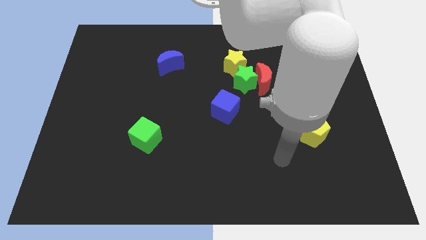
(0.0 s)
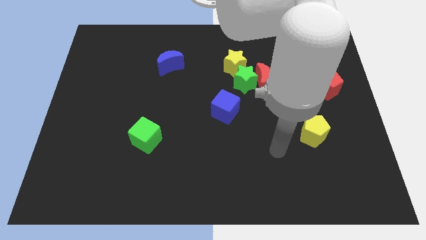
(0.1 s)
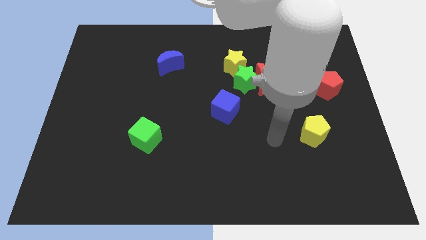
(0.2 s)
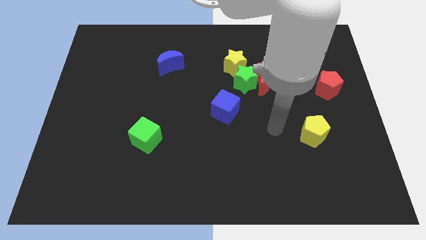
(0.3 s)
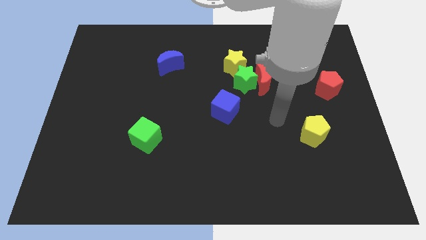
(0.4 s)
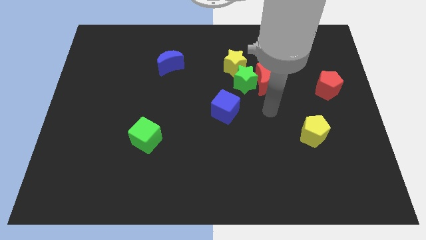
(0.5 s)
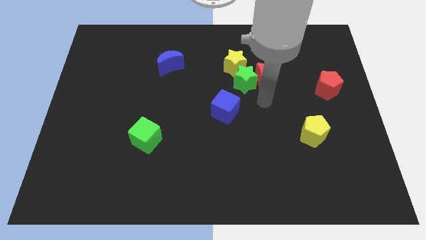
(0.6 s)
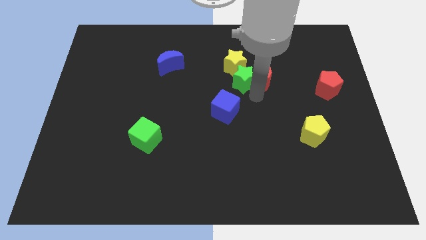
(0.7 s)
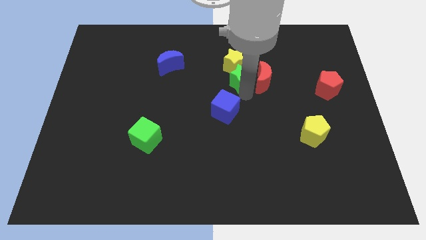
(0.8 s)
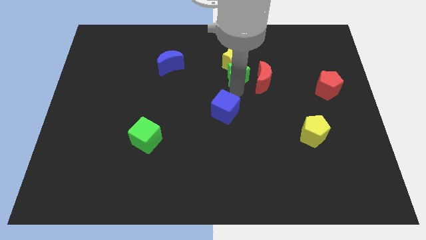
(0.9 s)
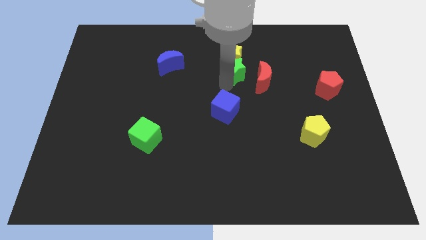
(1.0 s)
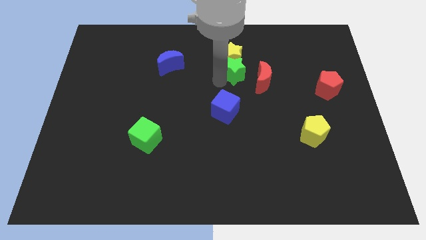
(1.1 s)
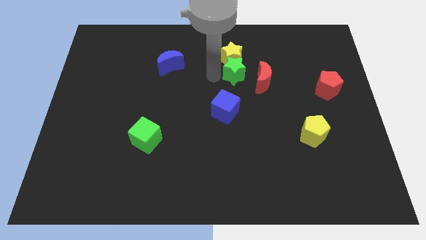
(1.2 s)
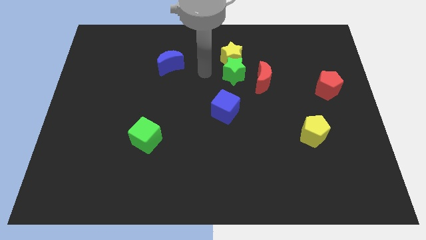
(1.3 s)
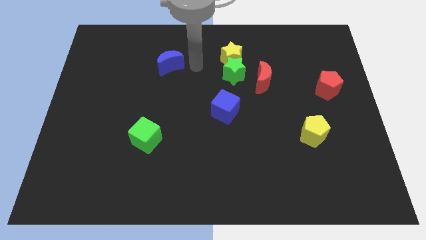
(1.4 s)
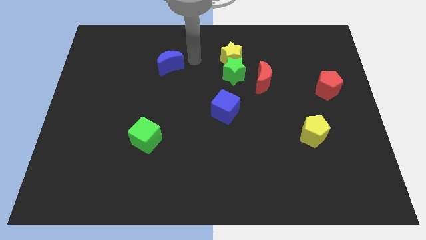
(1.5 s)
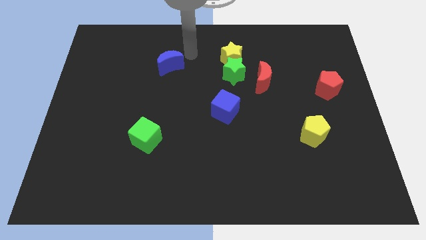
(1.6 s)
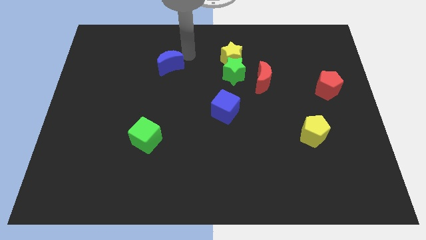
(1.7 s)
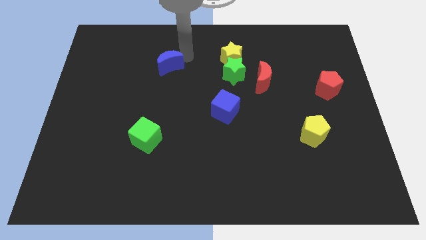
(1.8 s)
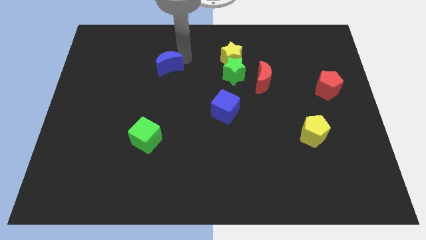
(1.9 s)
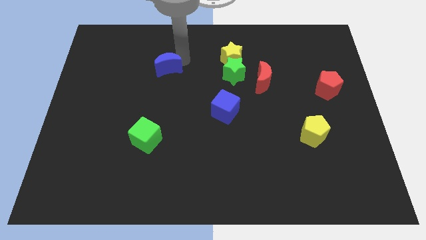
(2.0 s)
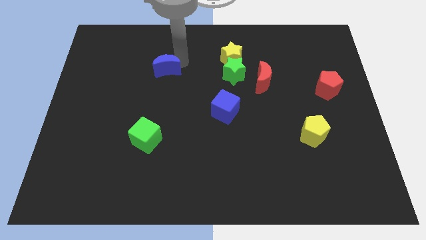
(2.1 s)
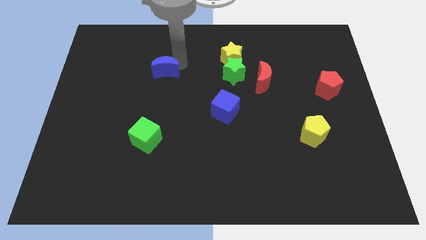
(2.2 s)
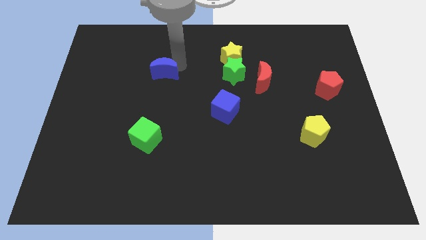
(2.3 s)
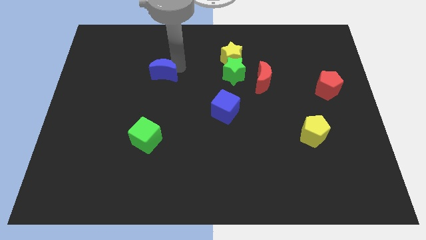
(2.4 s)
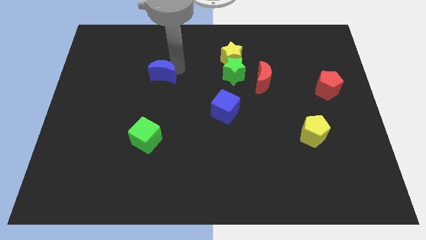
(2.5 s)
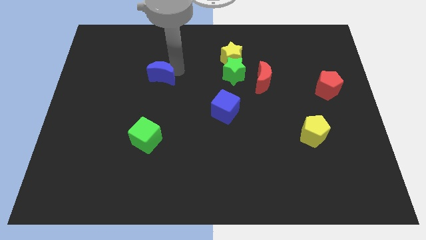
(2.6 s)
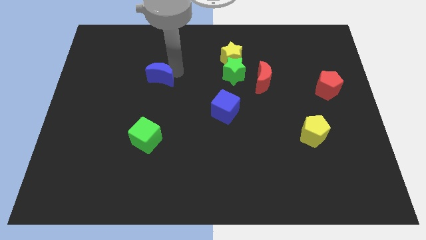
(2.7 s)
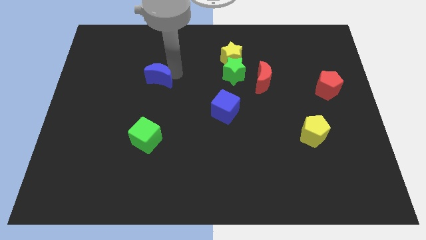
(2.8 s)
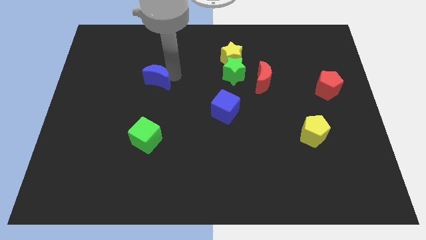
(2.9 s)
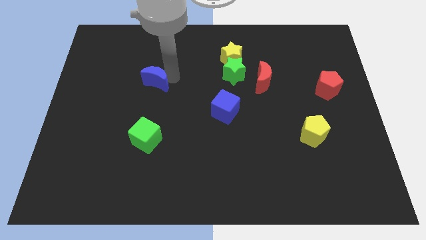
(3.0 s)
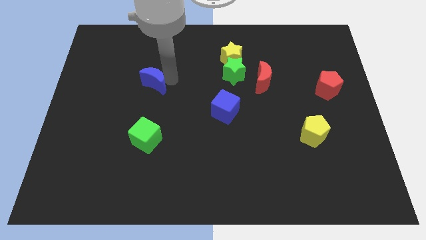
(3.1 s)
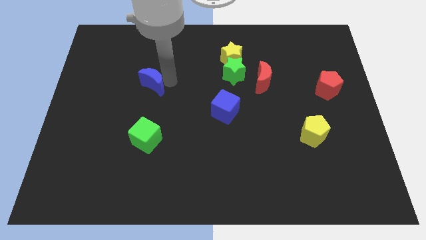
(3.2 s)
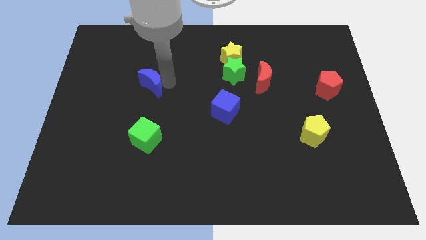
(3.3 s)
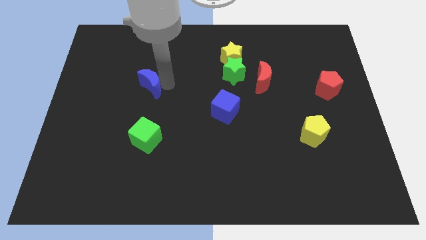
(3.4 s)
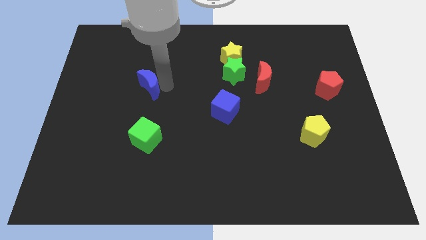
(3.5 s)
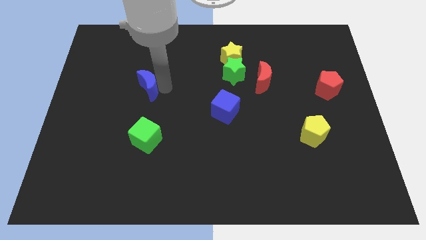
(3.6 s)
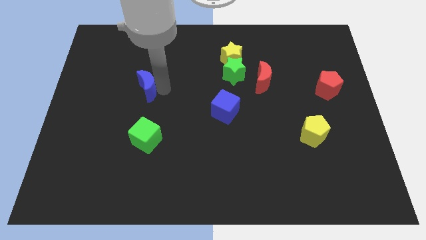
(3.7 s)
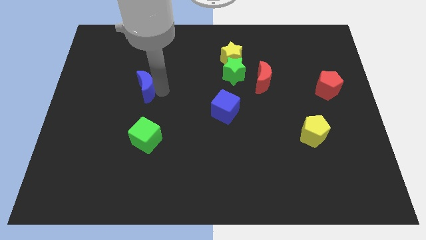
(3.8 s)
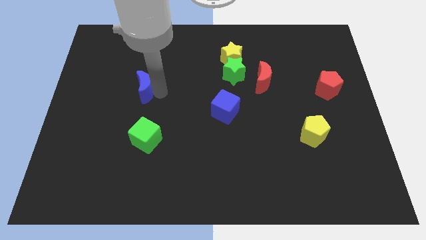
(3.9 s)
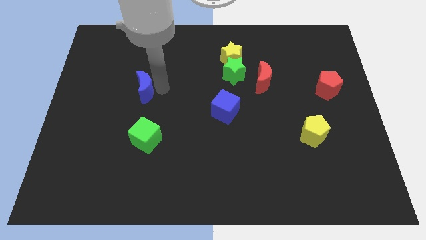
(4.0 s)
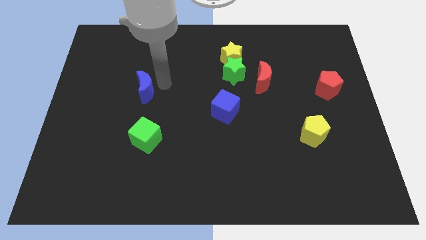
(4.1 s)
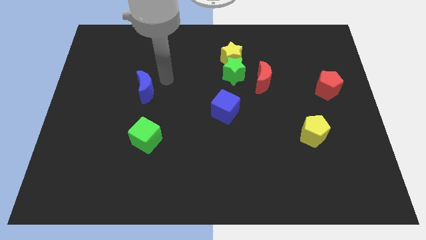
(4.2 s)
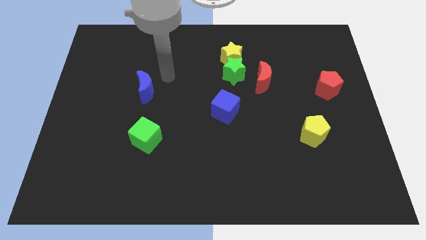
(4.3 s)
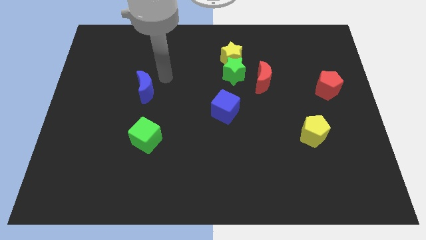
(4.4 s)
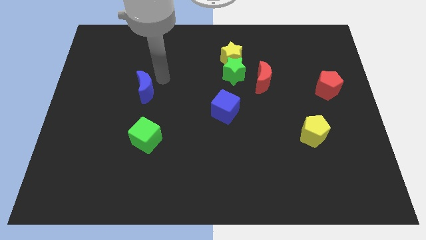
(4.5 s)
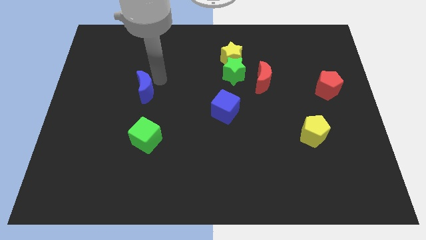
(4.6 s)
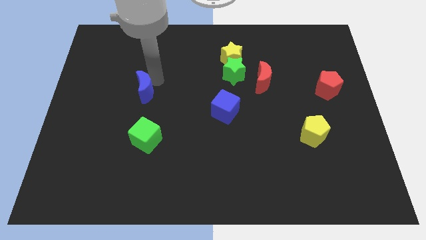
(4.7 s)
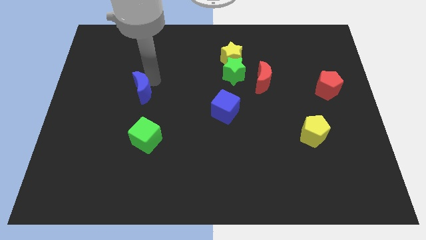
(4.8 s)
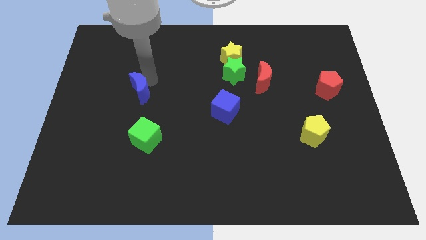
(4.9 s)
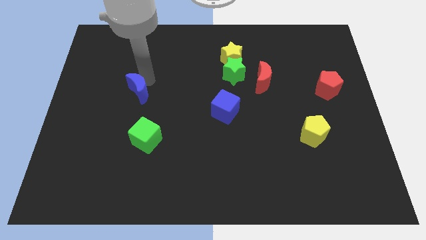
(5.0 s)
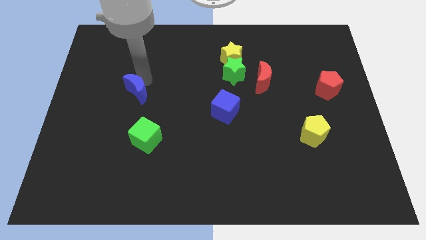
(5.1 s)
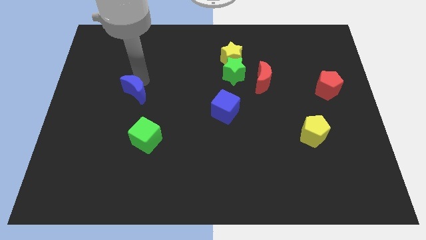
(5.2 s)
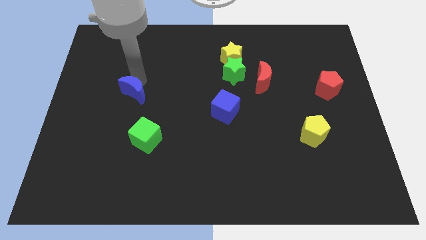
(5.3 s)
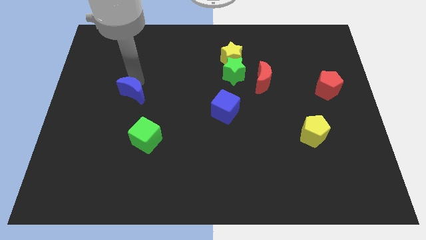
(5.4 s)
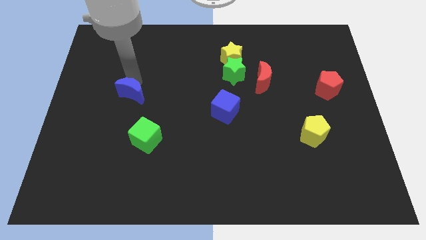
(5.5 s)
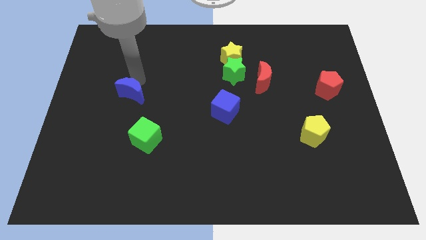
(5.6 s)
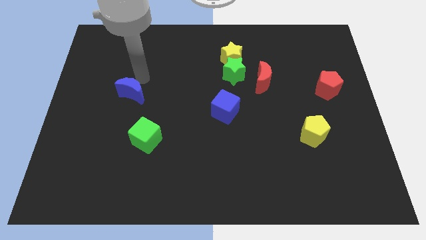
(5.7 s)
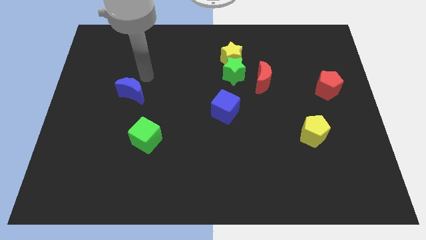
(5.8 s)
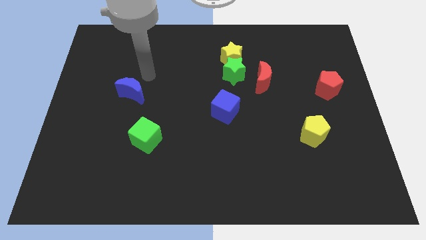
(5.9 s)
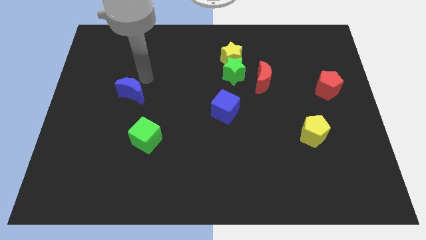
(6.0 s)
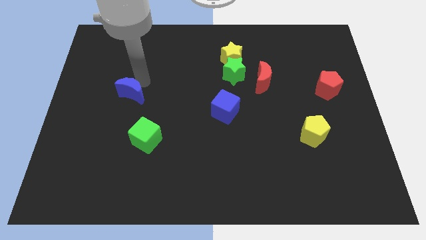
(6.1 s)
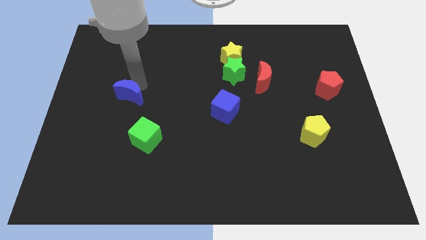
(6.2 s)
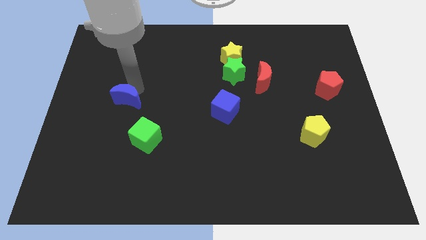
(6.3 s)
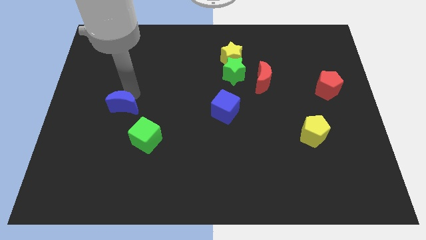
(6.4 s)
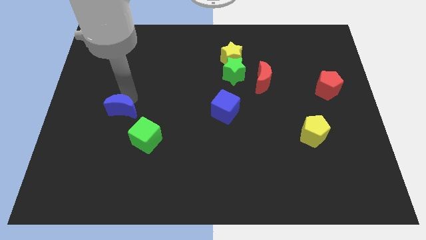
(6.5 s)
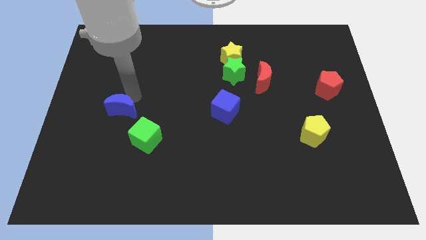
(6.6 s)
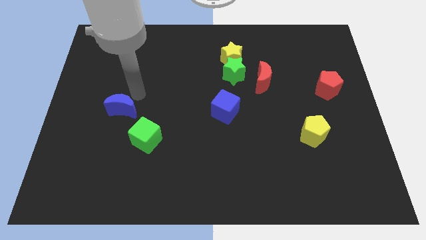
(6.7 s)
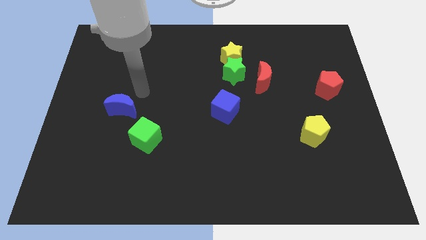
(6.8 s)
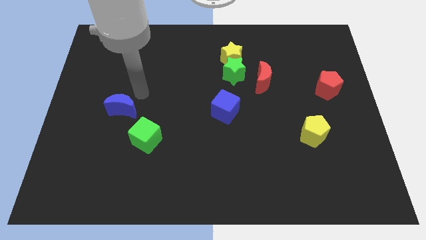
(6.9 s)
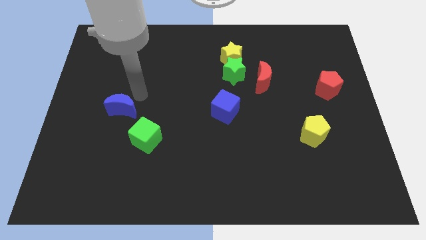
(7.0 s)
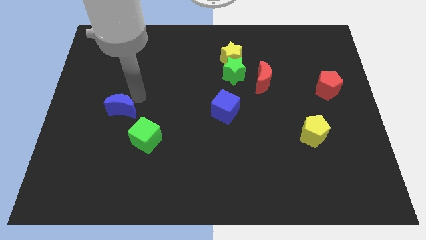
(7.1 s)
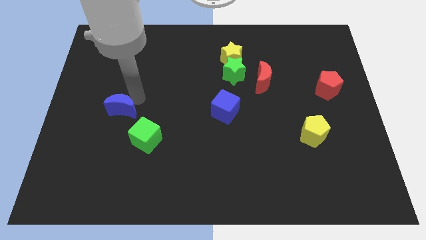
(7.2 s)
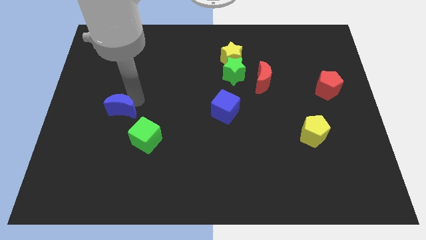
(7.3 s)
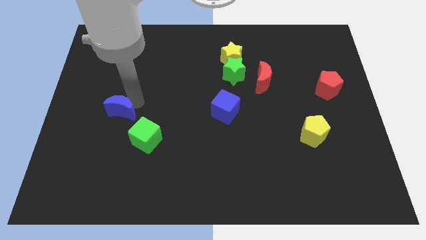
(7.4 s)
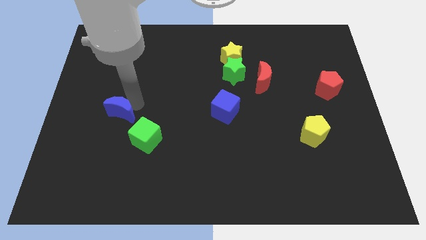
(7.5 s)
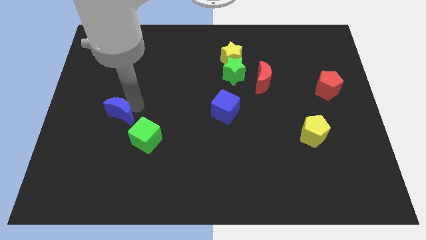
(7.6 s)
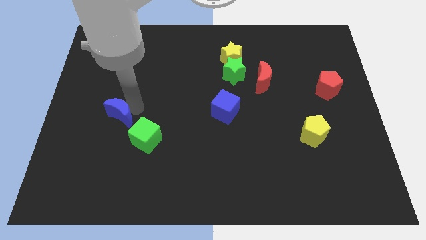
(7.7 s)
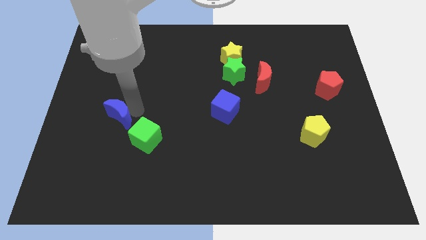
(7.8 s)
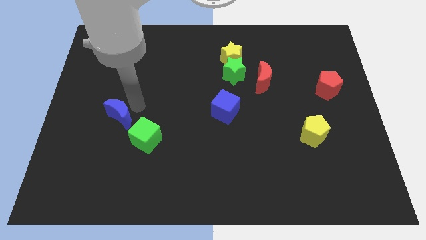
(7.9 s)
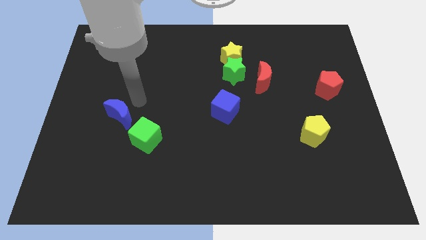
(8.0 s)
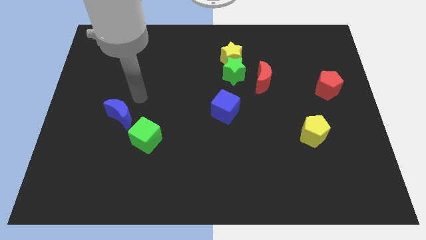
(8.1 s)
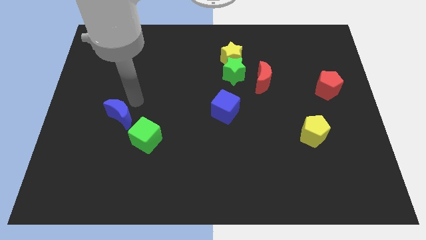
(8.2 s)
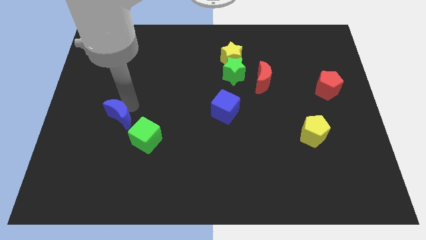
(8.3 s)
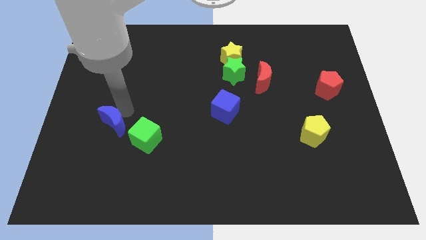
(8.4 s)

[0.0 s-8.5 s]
move the blue moon left of the green cube
